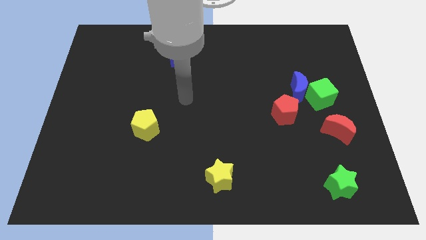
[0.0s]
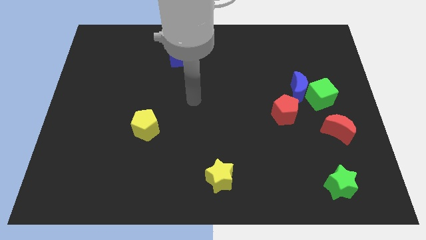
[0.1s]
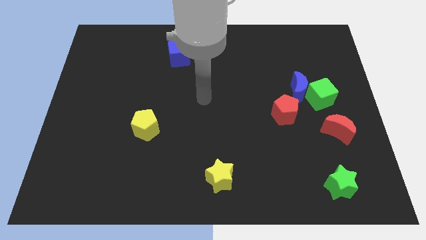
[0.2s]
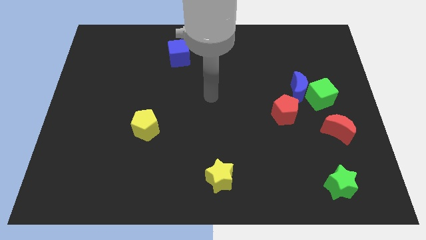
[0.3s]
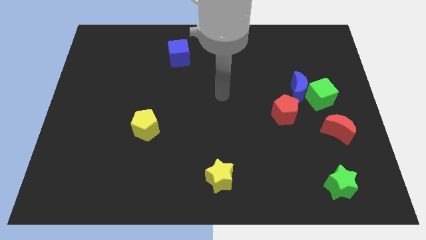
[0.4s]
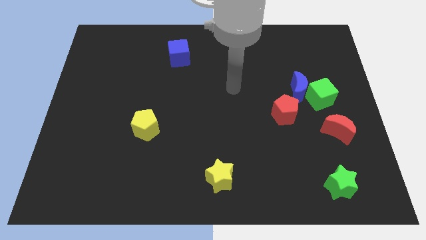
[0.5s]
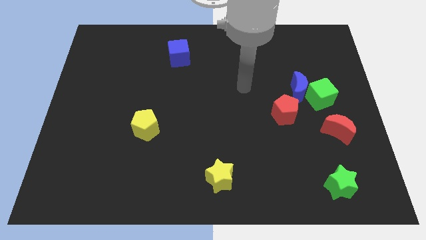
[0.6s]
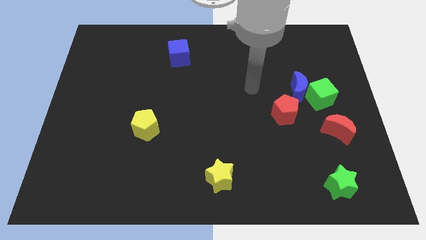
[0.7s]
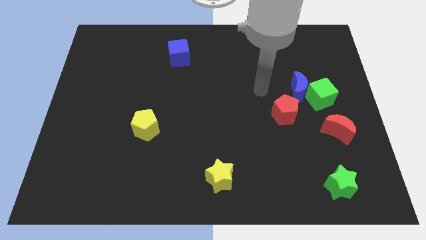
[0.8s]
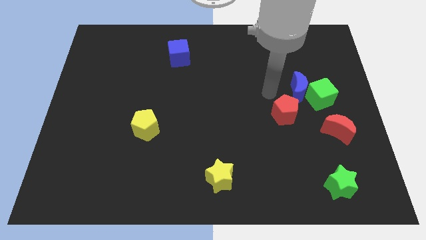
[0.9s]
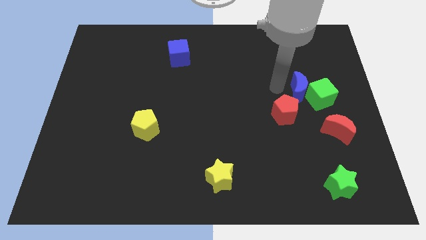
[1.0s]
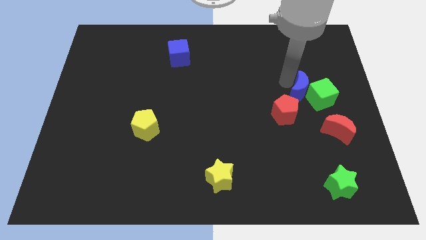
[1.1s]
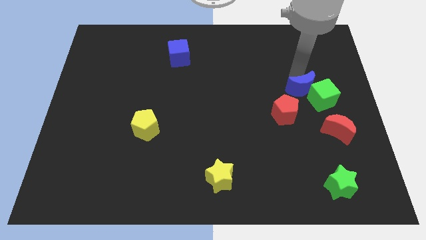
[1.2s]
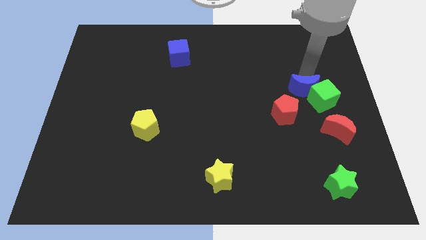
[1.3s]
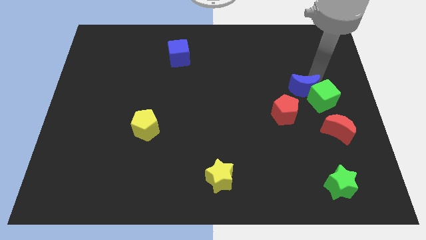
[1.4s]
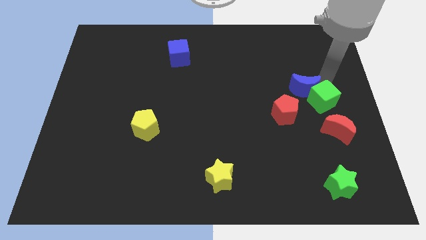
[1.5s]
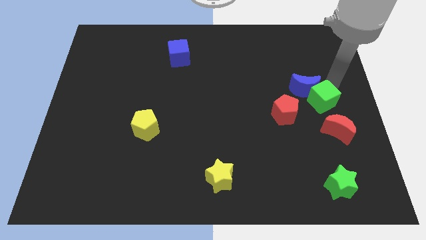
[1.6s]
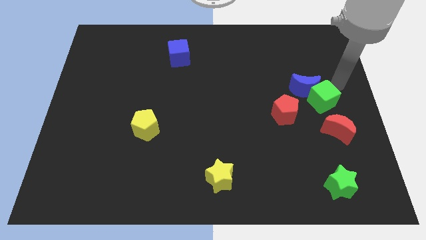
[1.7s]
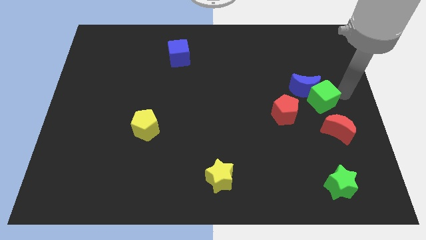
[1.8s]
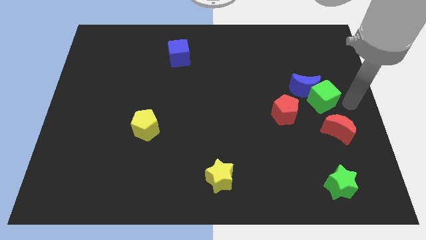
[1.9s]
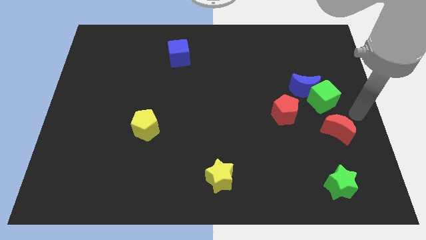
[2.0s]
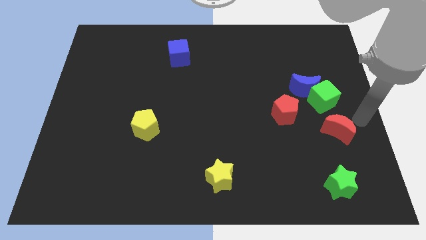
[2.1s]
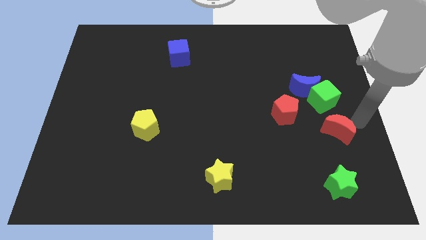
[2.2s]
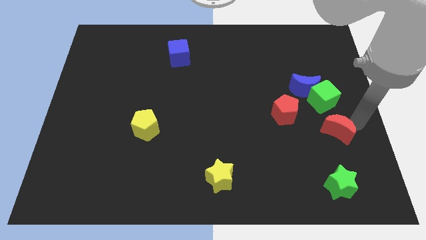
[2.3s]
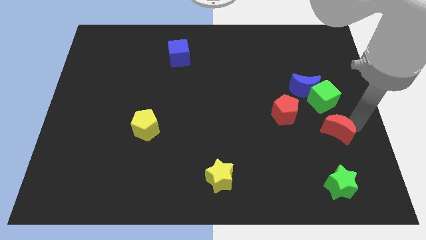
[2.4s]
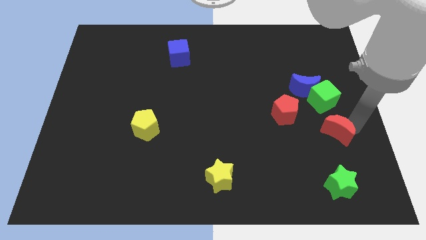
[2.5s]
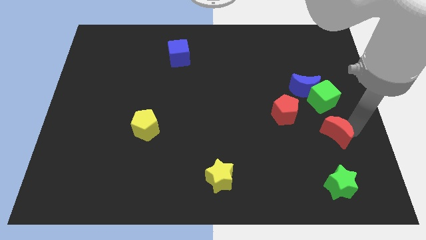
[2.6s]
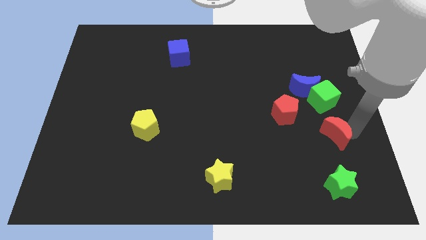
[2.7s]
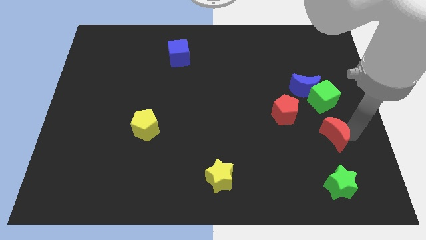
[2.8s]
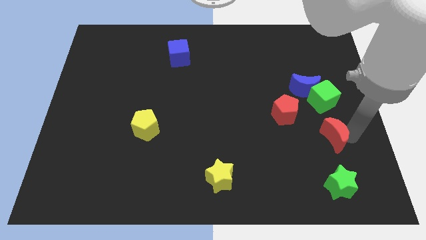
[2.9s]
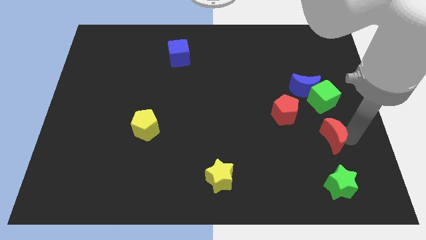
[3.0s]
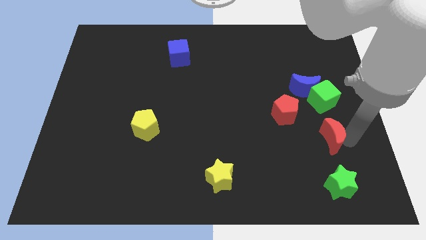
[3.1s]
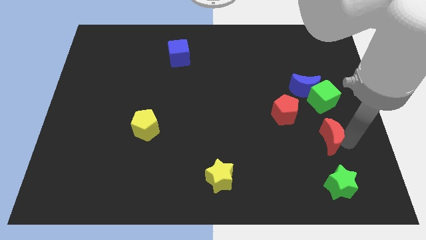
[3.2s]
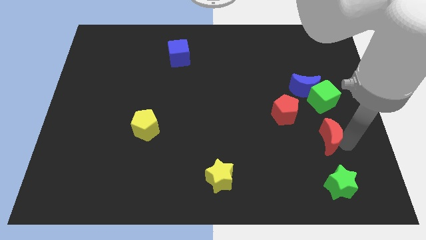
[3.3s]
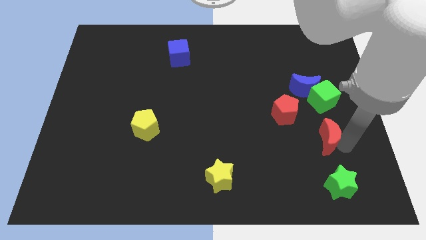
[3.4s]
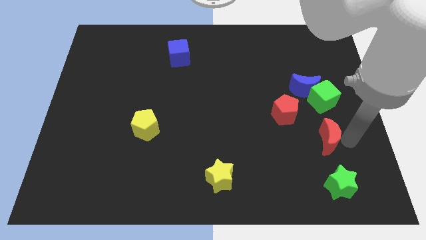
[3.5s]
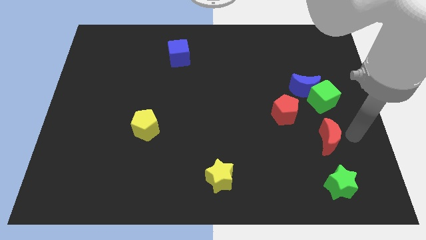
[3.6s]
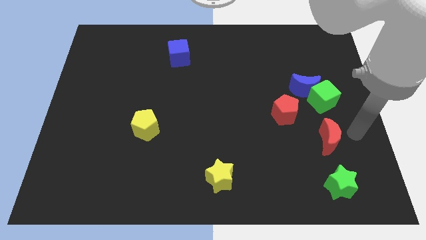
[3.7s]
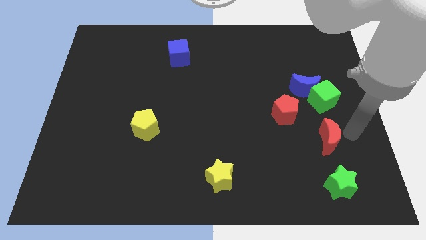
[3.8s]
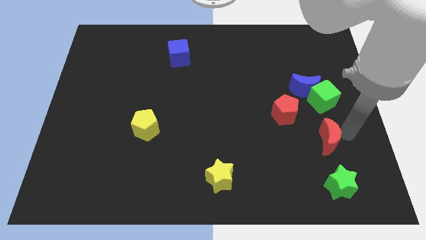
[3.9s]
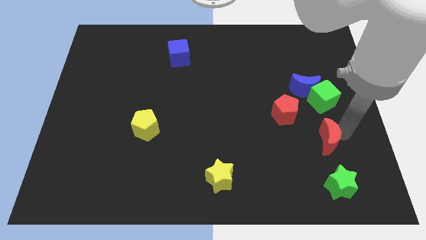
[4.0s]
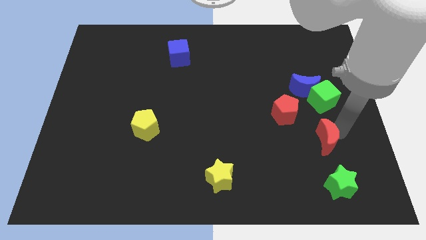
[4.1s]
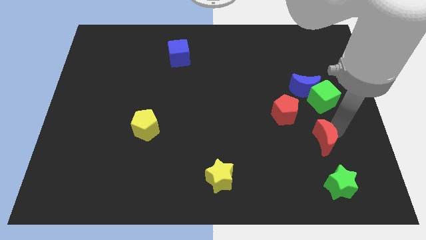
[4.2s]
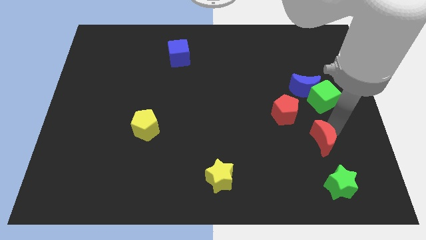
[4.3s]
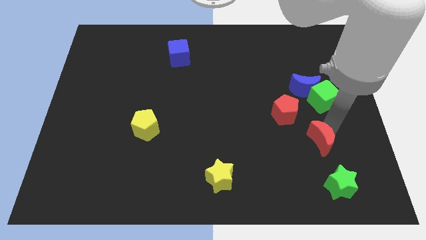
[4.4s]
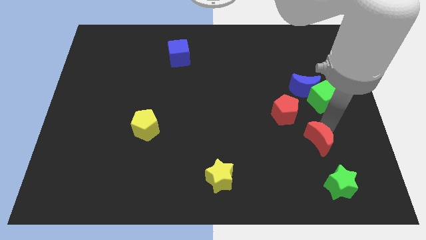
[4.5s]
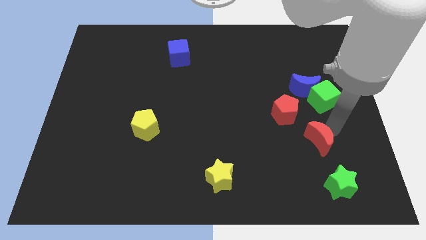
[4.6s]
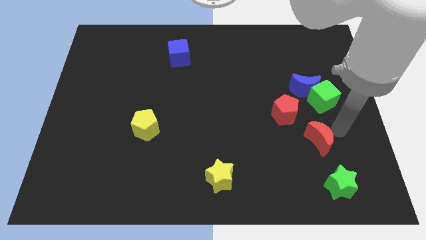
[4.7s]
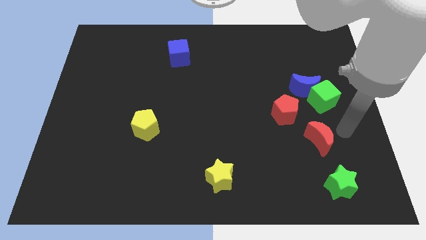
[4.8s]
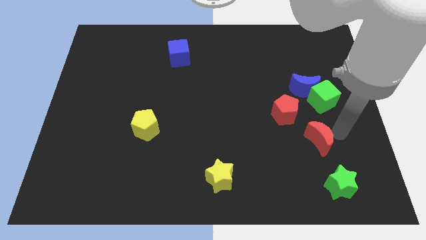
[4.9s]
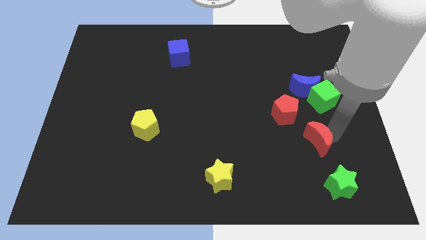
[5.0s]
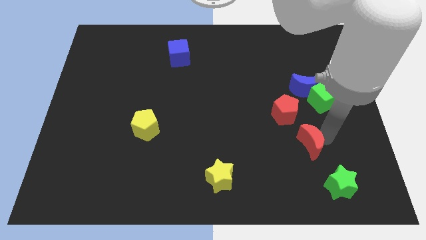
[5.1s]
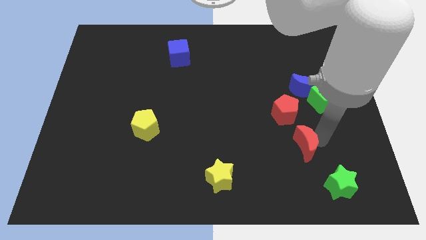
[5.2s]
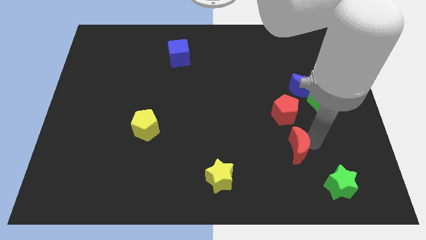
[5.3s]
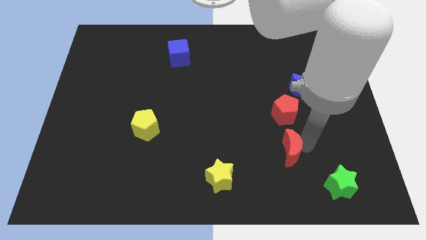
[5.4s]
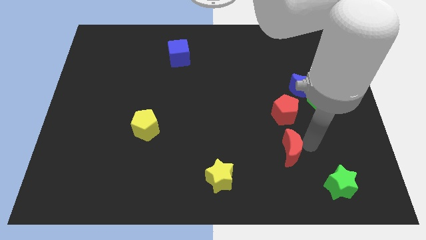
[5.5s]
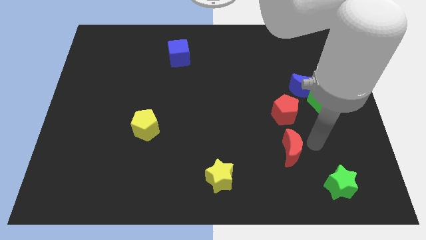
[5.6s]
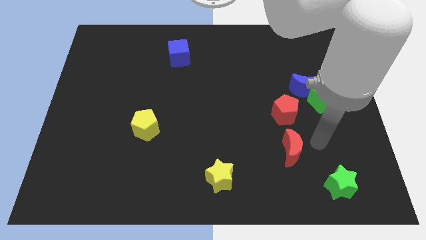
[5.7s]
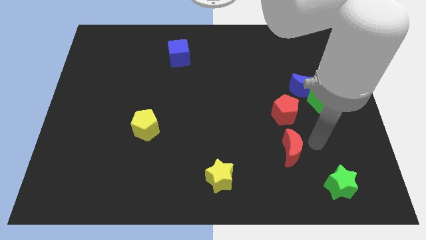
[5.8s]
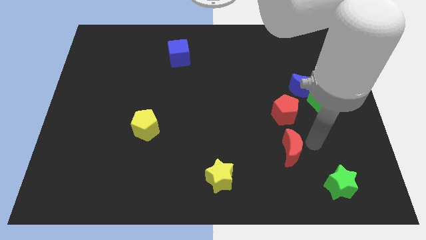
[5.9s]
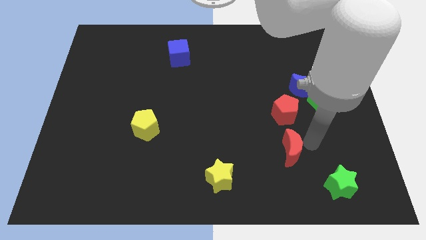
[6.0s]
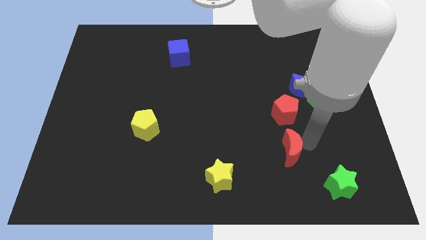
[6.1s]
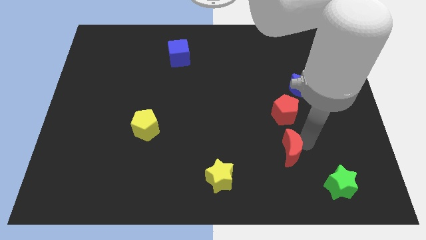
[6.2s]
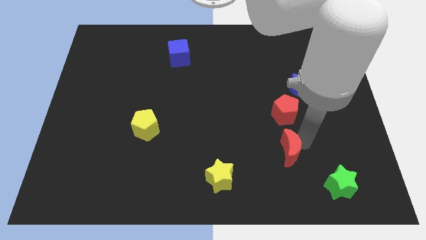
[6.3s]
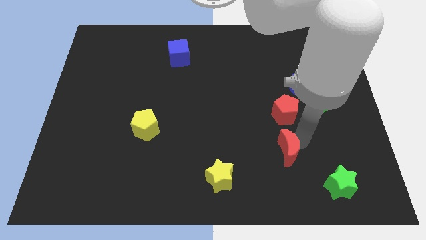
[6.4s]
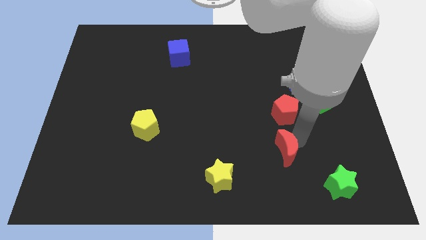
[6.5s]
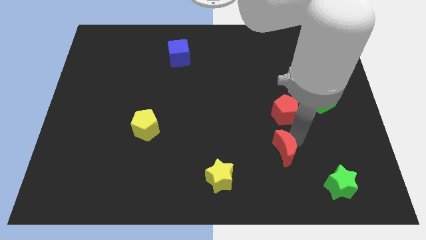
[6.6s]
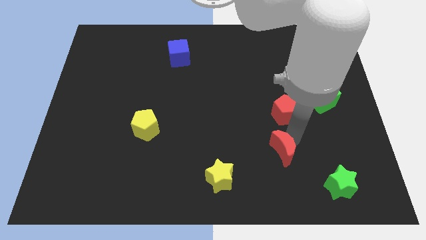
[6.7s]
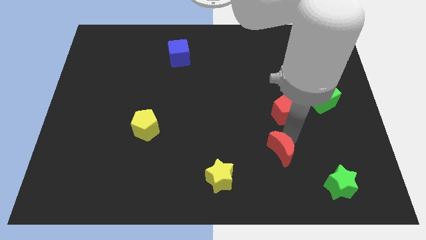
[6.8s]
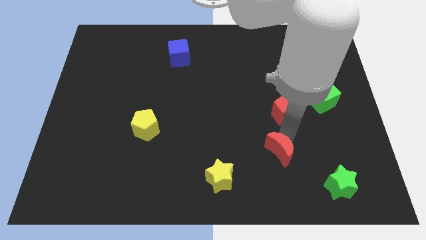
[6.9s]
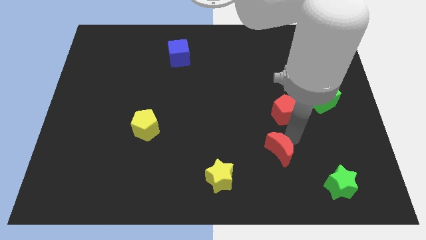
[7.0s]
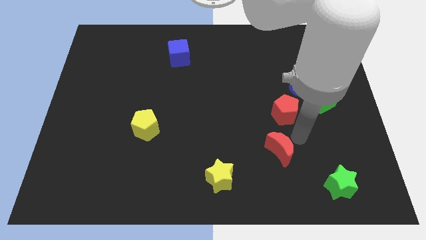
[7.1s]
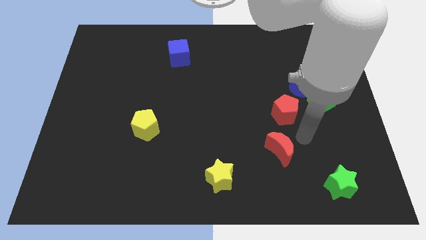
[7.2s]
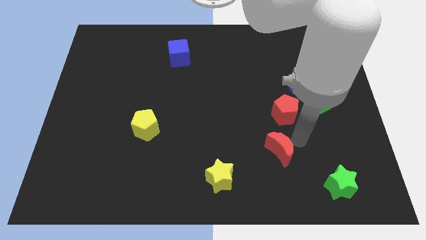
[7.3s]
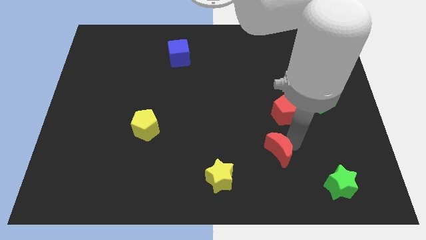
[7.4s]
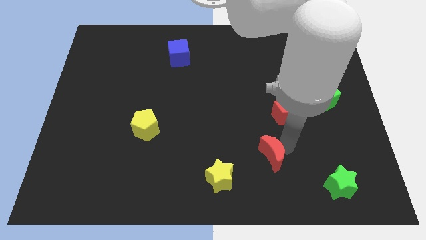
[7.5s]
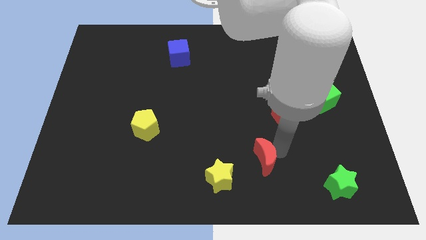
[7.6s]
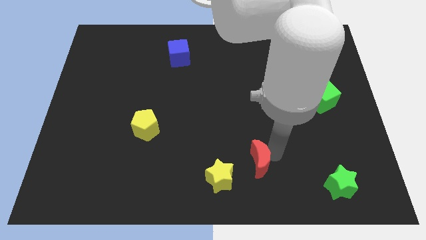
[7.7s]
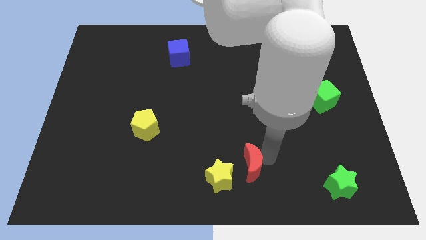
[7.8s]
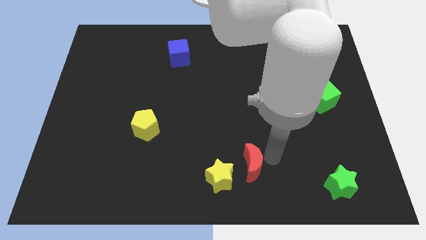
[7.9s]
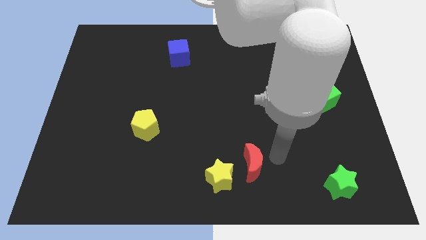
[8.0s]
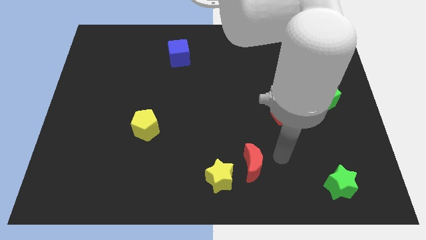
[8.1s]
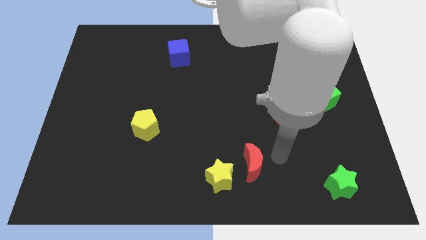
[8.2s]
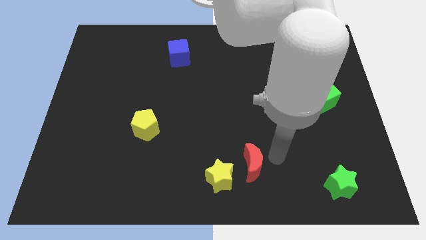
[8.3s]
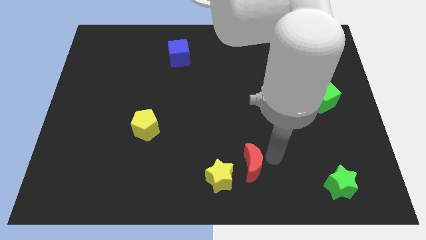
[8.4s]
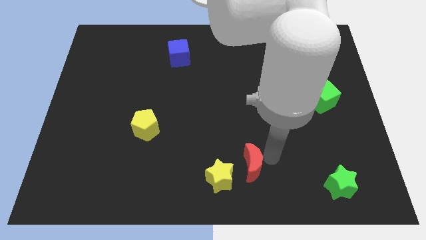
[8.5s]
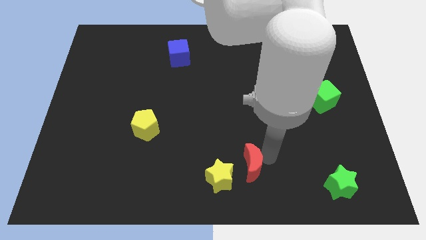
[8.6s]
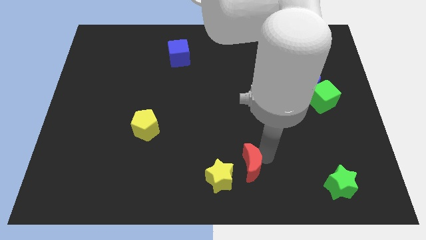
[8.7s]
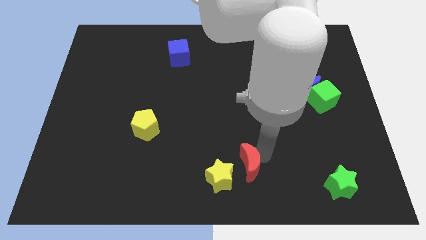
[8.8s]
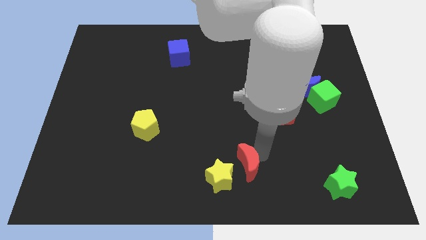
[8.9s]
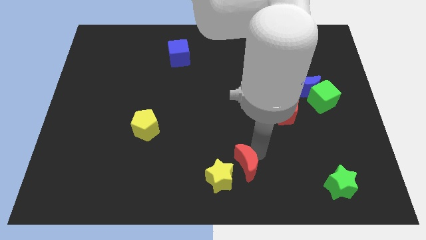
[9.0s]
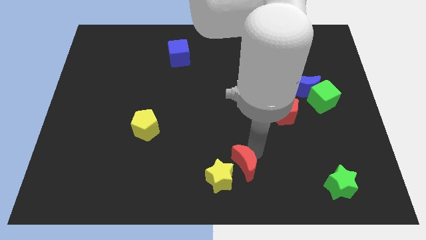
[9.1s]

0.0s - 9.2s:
push the red moon next to the yellow star
